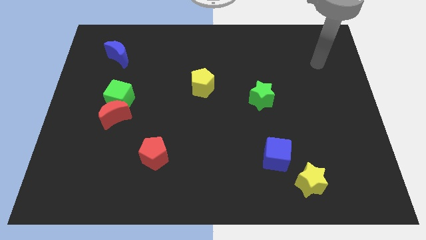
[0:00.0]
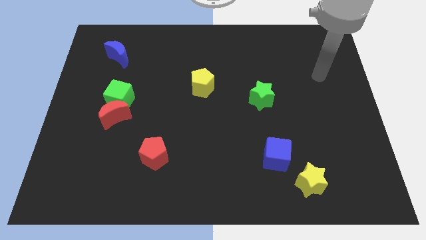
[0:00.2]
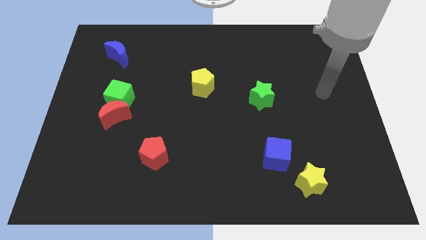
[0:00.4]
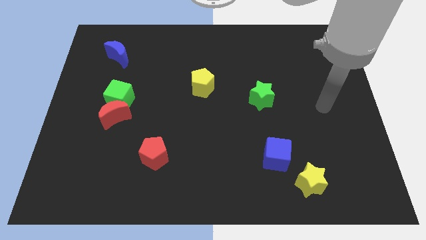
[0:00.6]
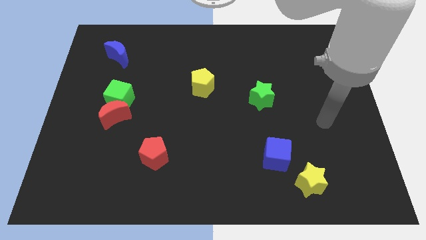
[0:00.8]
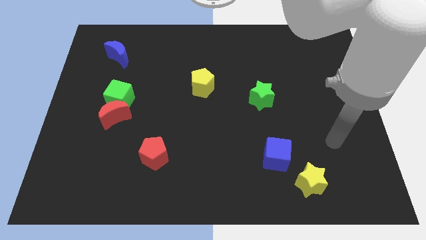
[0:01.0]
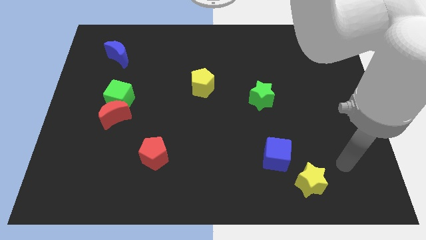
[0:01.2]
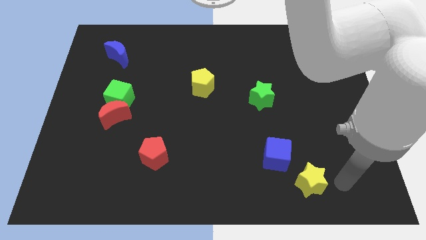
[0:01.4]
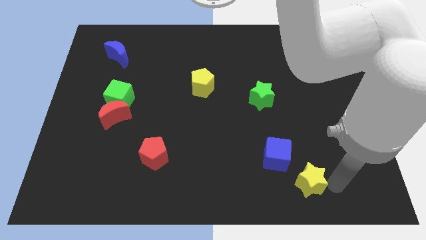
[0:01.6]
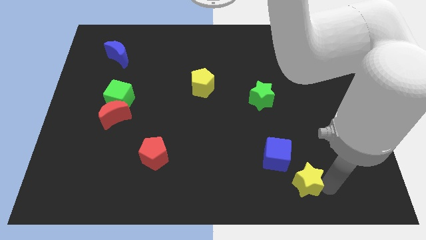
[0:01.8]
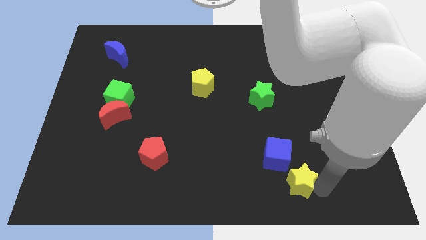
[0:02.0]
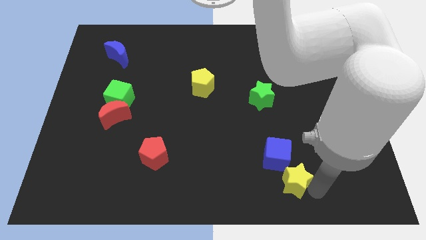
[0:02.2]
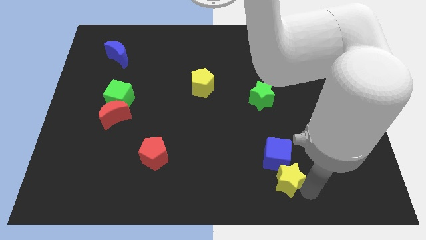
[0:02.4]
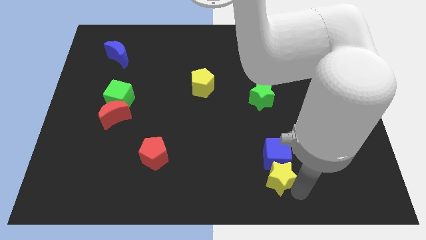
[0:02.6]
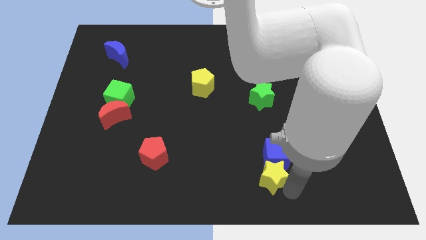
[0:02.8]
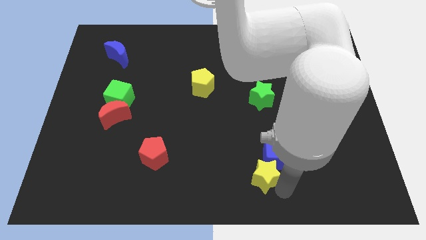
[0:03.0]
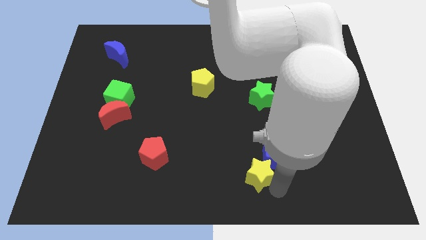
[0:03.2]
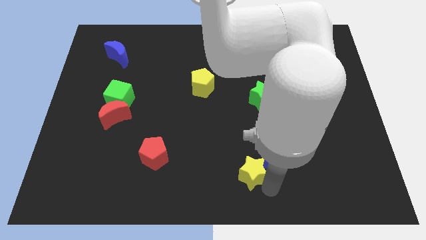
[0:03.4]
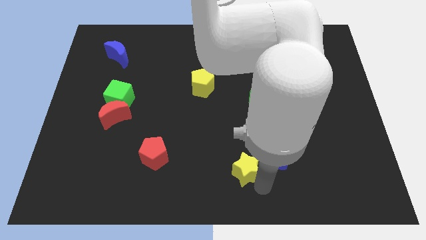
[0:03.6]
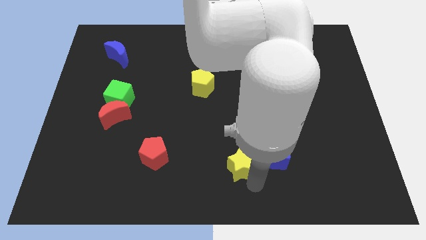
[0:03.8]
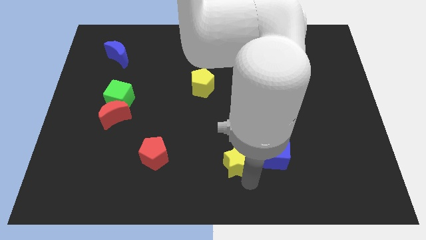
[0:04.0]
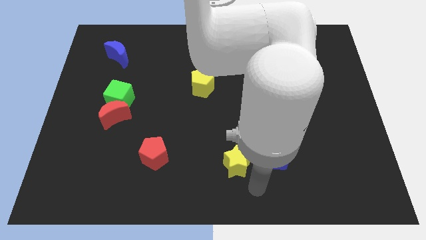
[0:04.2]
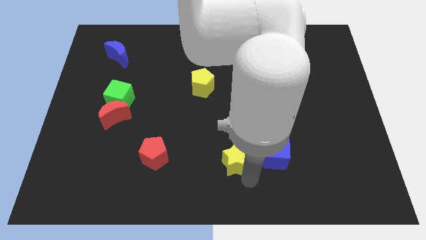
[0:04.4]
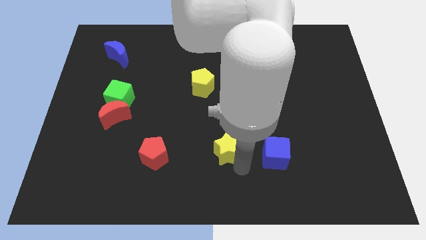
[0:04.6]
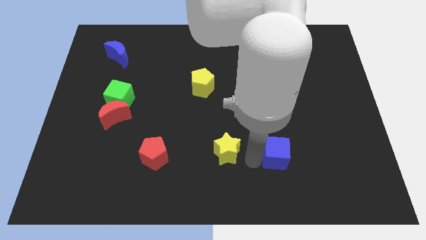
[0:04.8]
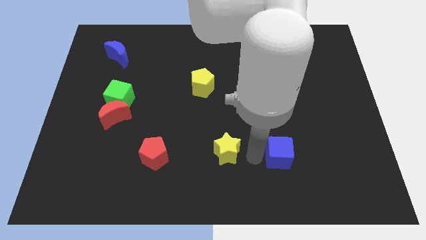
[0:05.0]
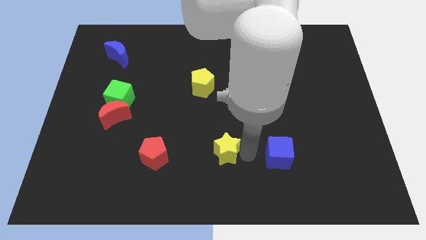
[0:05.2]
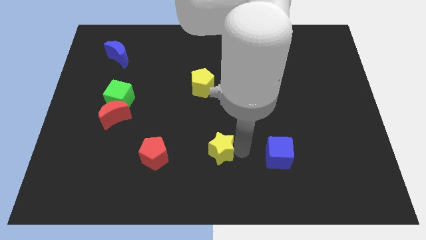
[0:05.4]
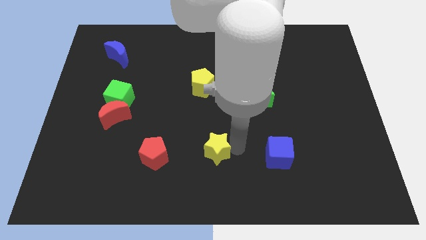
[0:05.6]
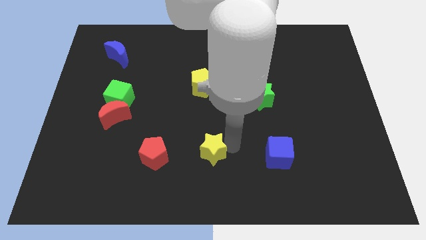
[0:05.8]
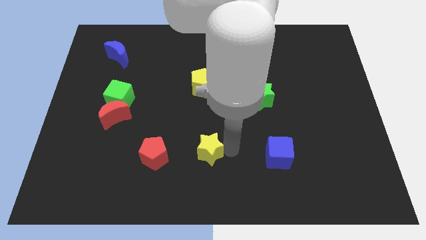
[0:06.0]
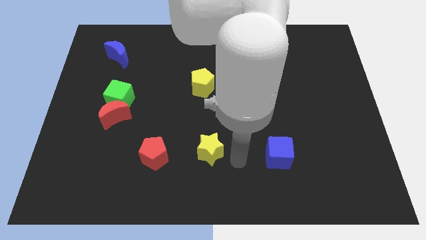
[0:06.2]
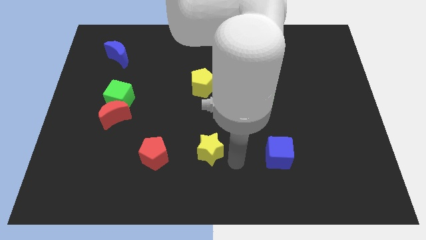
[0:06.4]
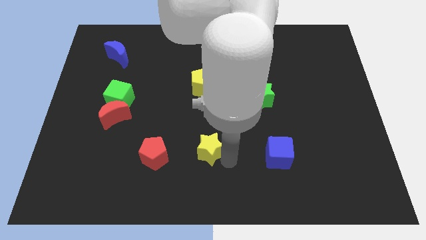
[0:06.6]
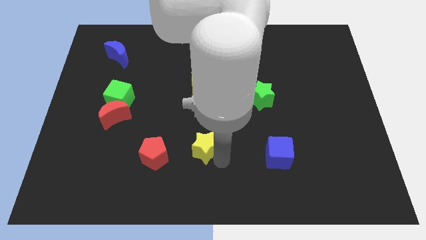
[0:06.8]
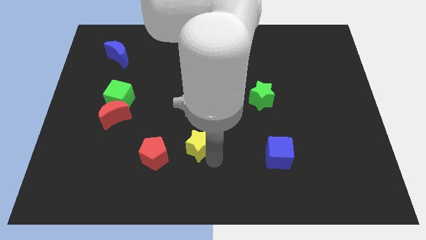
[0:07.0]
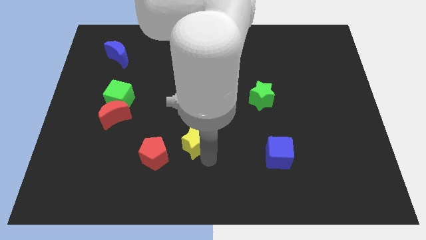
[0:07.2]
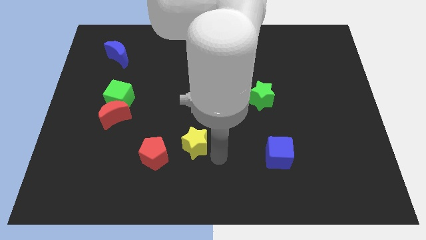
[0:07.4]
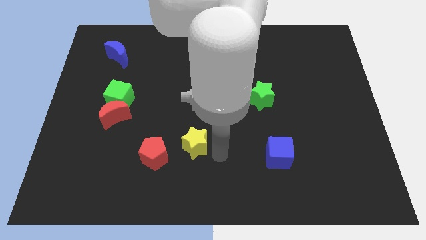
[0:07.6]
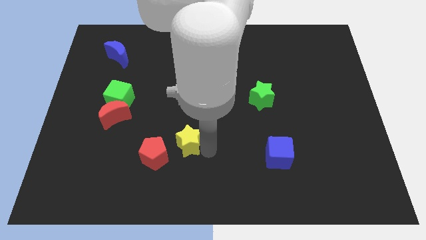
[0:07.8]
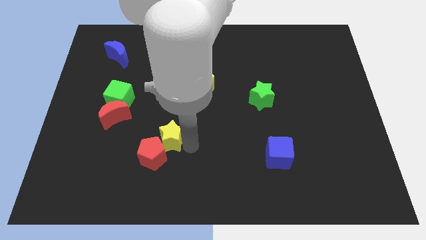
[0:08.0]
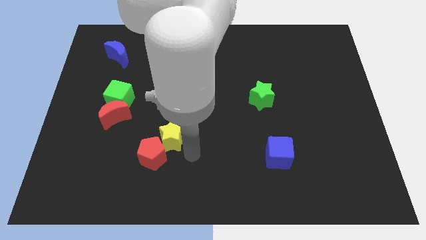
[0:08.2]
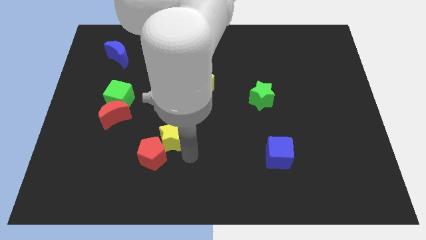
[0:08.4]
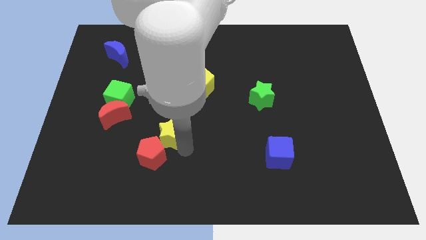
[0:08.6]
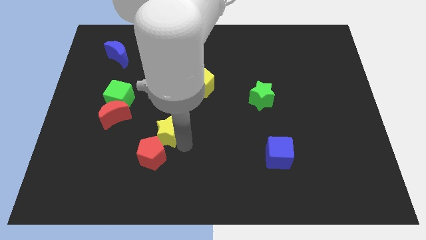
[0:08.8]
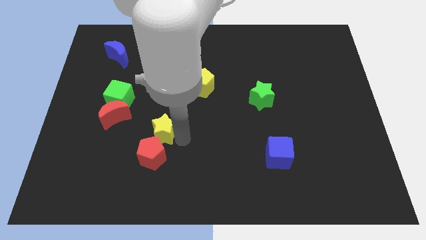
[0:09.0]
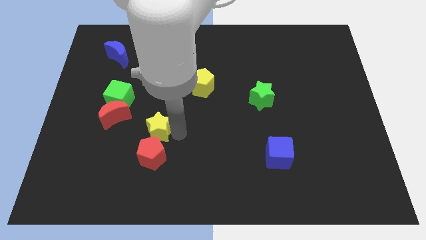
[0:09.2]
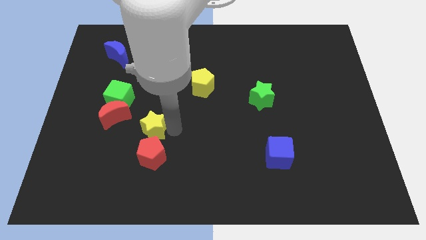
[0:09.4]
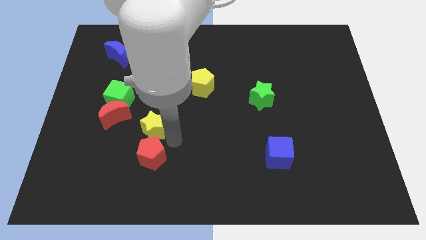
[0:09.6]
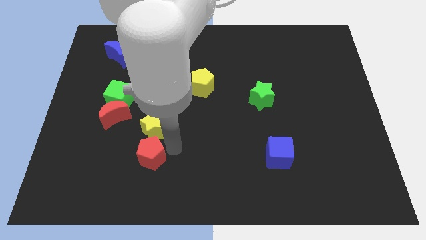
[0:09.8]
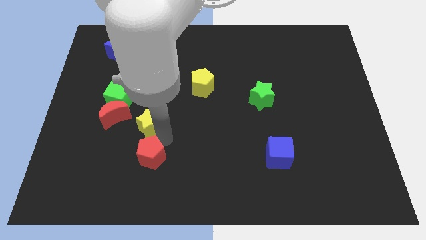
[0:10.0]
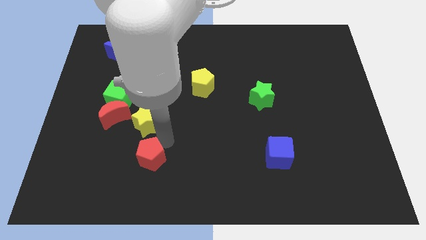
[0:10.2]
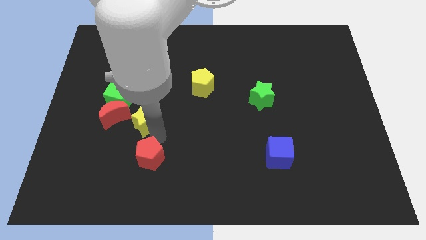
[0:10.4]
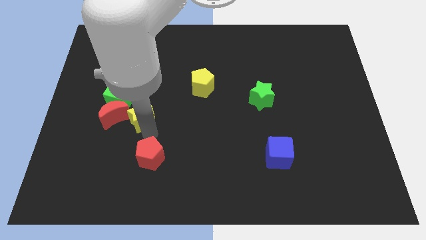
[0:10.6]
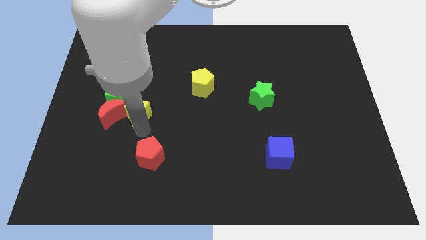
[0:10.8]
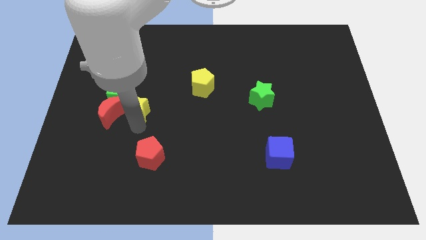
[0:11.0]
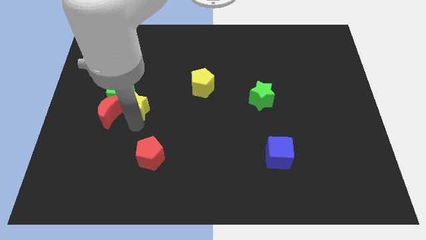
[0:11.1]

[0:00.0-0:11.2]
push the yellow star to the green cube
